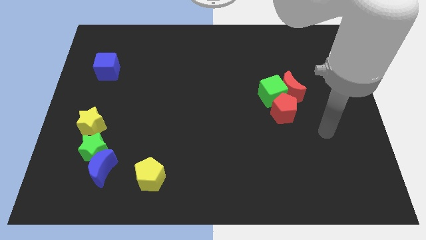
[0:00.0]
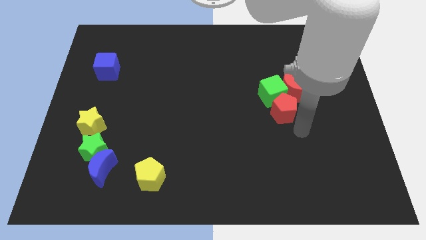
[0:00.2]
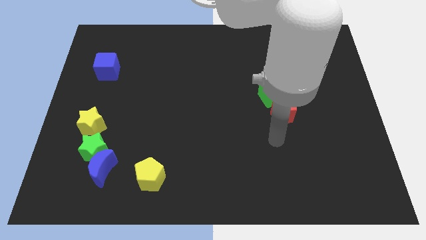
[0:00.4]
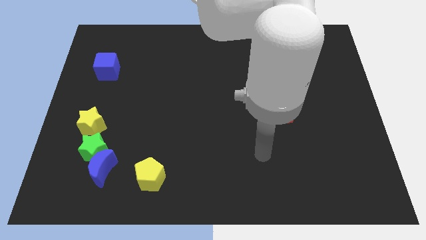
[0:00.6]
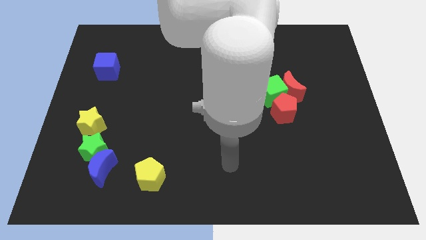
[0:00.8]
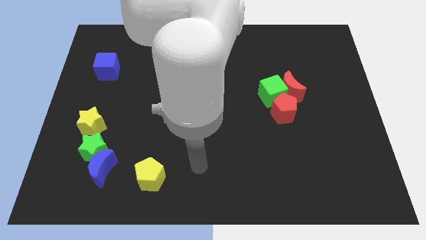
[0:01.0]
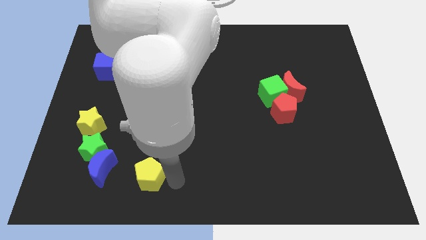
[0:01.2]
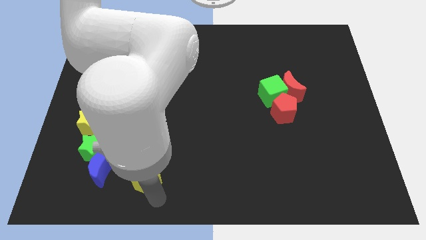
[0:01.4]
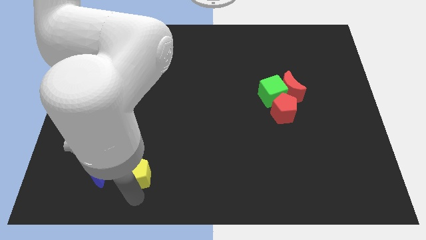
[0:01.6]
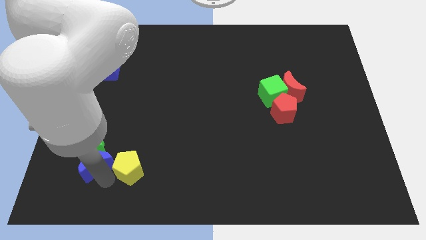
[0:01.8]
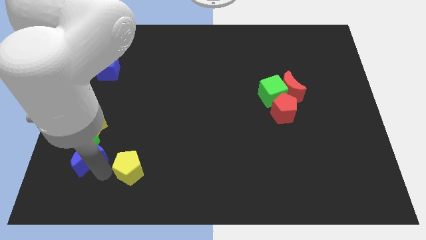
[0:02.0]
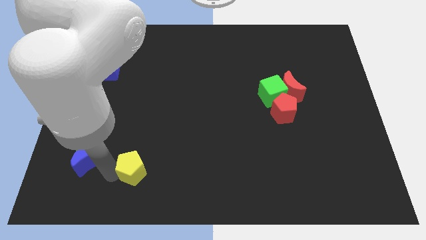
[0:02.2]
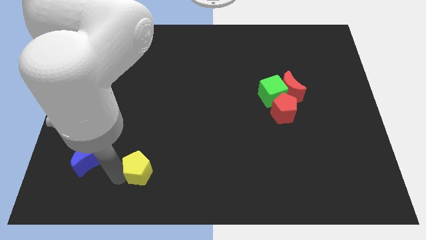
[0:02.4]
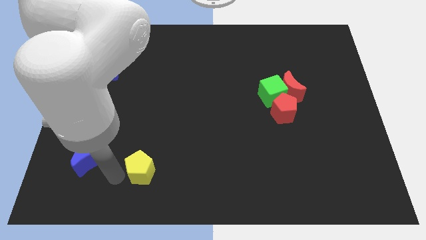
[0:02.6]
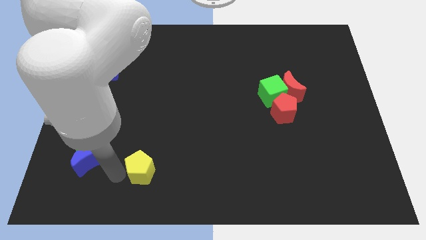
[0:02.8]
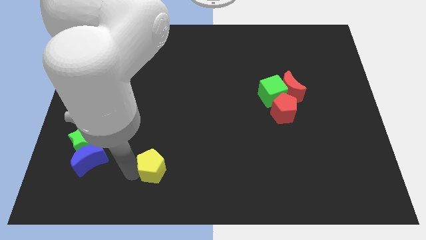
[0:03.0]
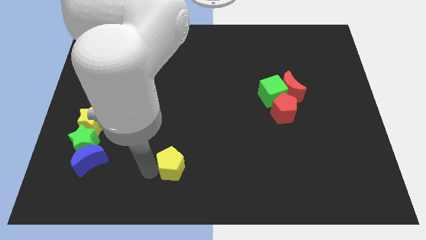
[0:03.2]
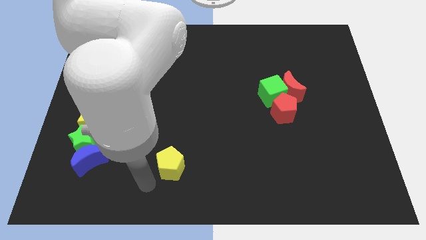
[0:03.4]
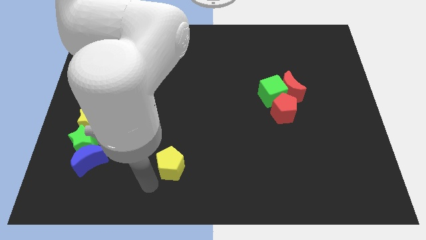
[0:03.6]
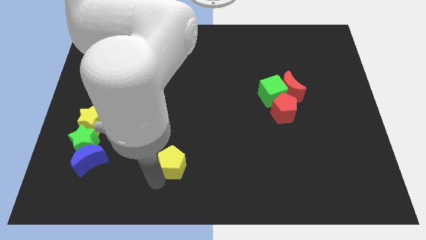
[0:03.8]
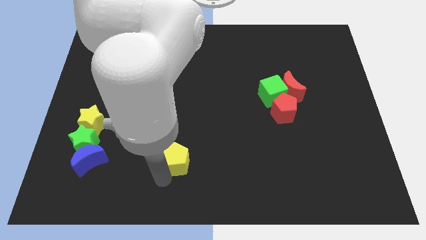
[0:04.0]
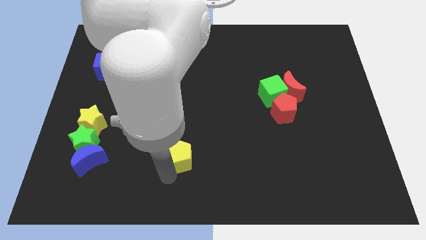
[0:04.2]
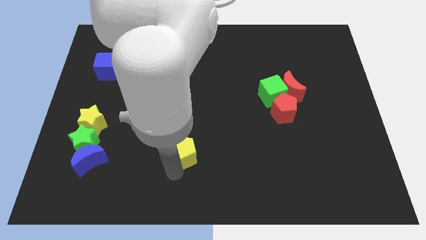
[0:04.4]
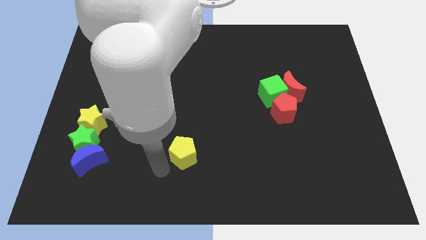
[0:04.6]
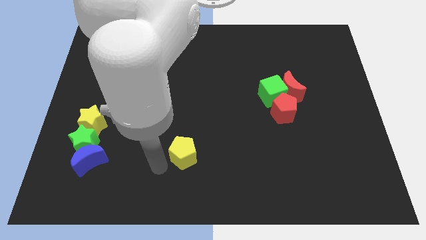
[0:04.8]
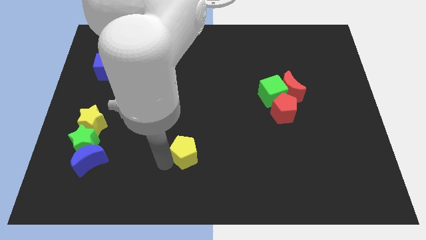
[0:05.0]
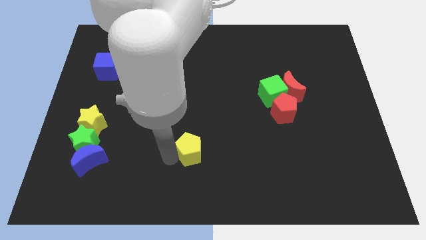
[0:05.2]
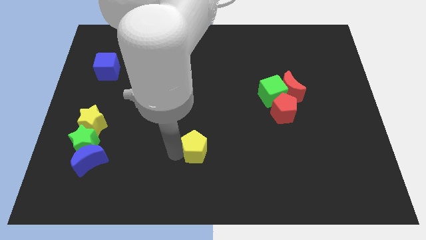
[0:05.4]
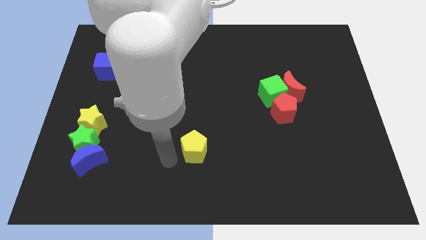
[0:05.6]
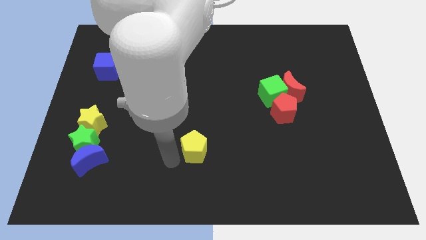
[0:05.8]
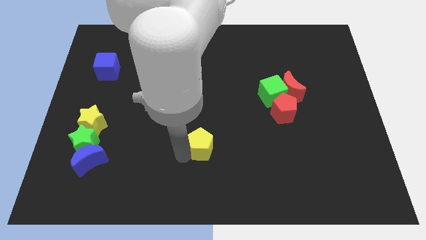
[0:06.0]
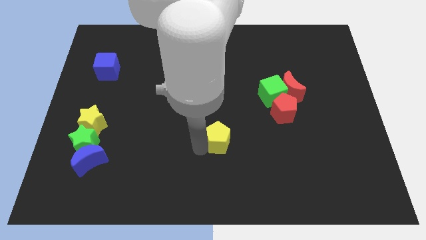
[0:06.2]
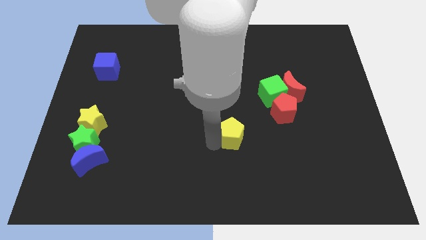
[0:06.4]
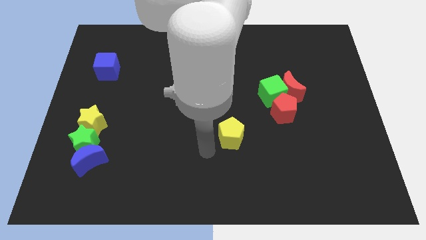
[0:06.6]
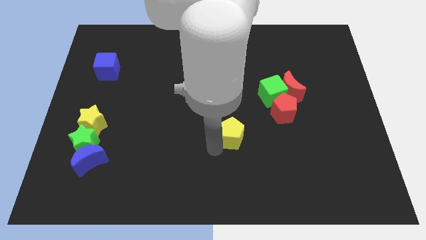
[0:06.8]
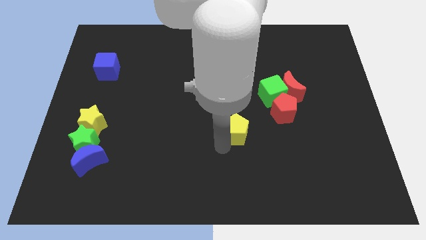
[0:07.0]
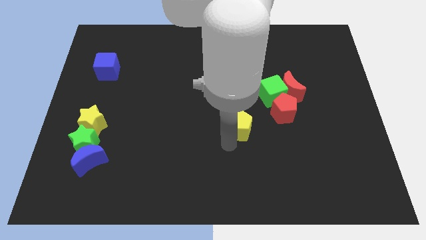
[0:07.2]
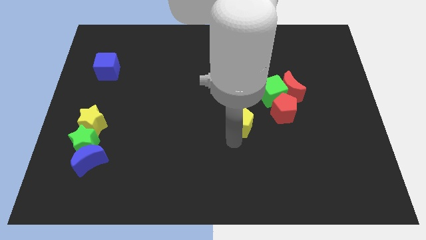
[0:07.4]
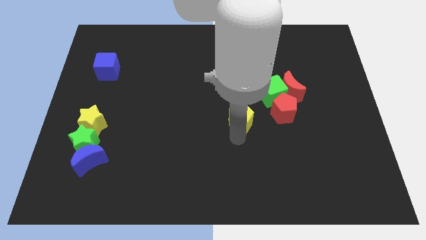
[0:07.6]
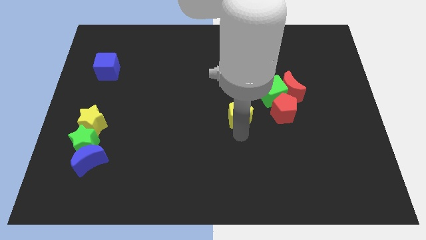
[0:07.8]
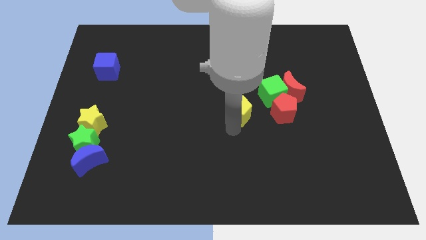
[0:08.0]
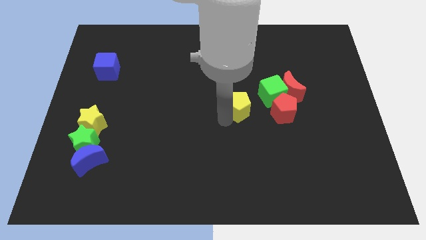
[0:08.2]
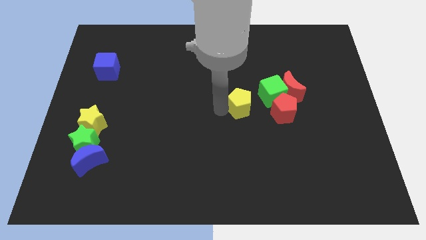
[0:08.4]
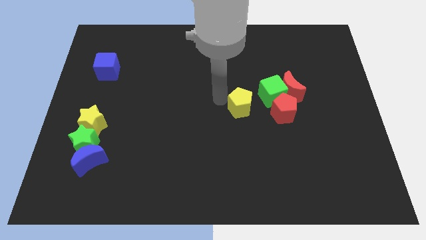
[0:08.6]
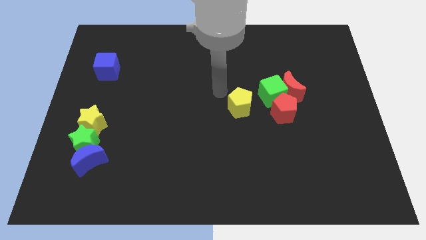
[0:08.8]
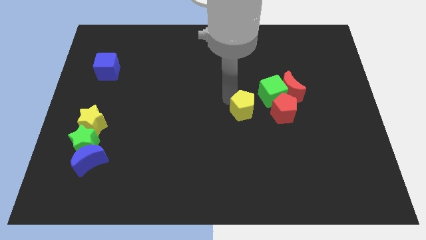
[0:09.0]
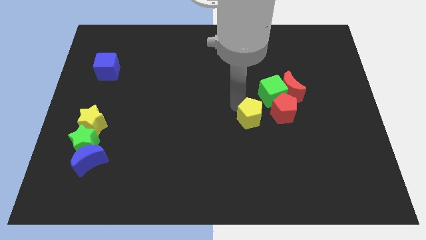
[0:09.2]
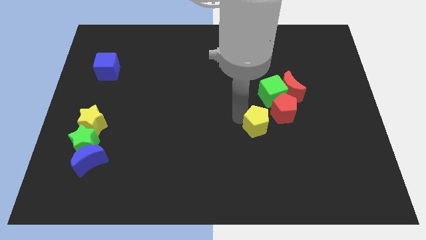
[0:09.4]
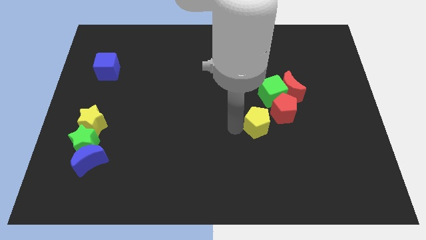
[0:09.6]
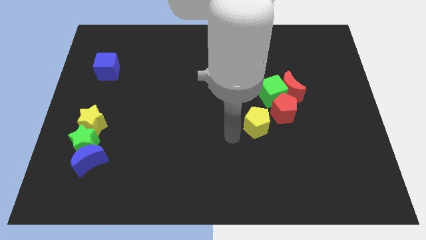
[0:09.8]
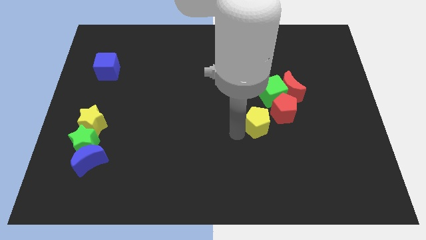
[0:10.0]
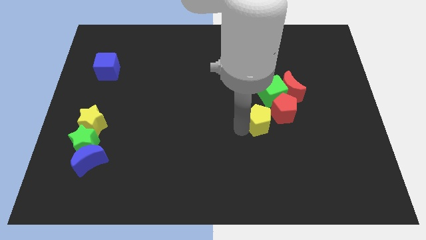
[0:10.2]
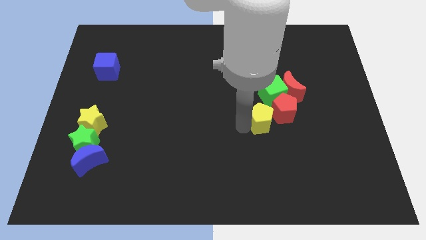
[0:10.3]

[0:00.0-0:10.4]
move the yellow pentagon close to the red pentagon

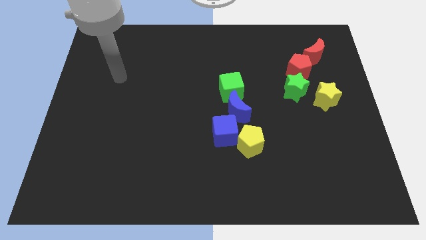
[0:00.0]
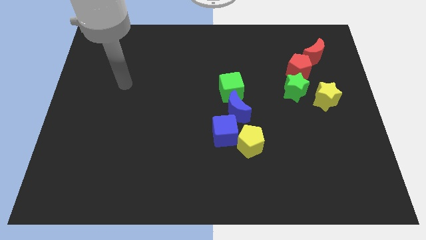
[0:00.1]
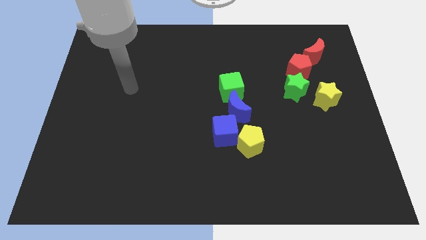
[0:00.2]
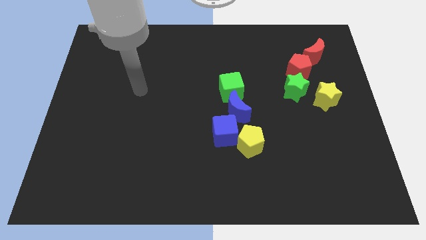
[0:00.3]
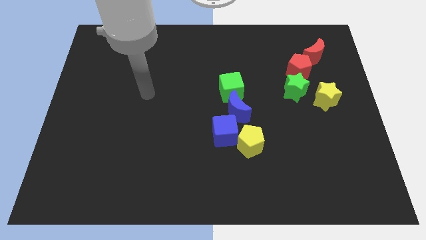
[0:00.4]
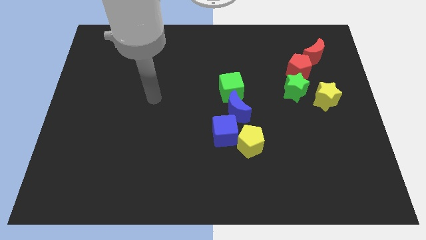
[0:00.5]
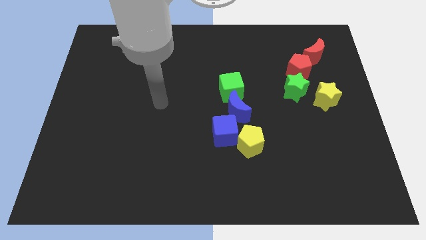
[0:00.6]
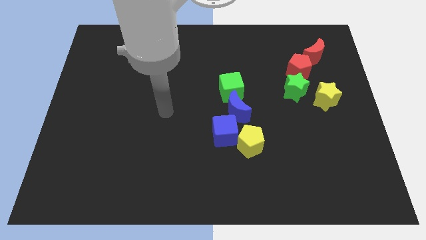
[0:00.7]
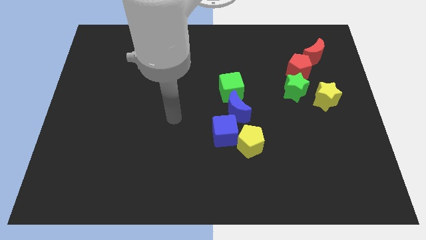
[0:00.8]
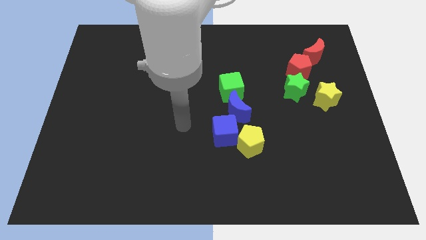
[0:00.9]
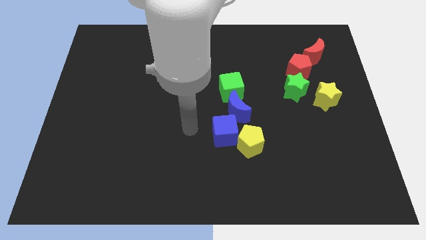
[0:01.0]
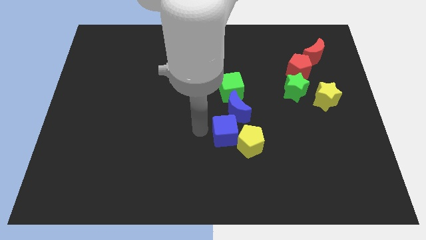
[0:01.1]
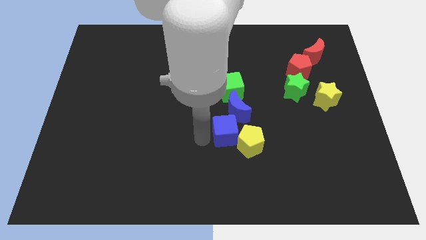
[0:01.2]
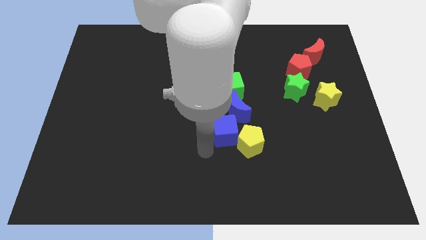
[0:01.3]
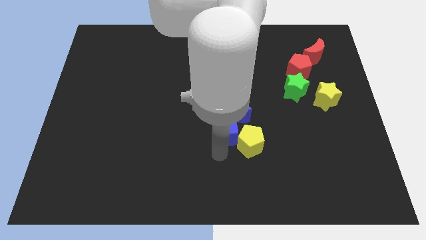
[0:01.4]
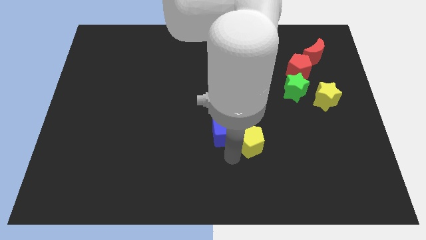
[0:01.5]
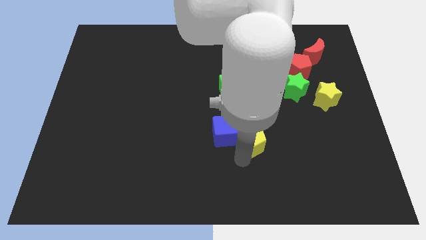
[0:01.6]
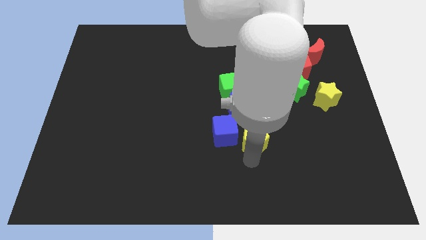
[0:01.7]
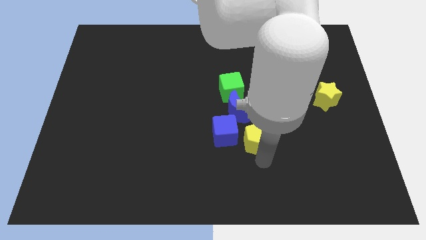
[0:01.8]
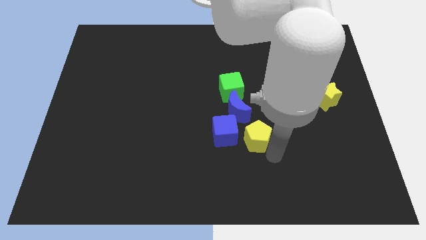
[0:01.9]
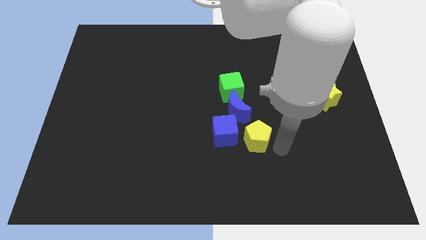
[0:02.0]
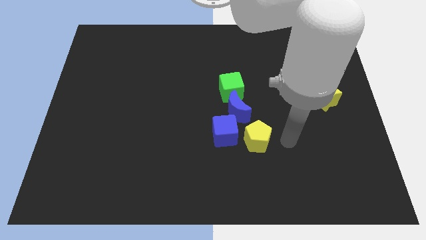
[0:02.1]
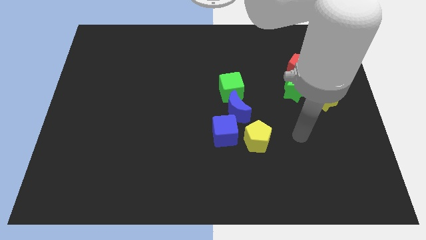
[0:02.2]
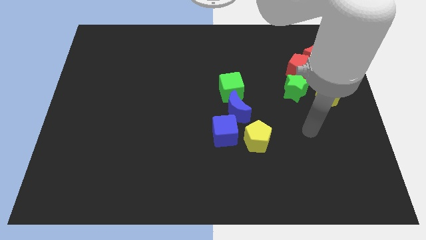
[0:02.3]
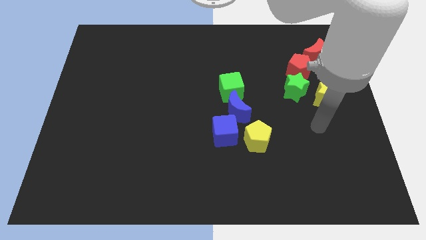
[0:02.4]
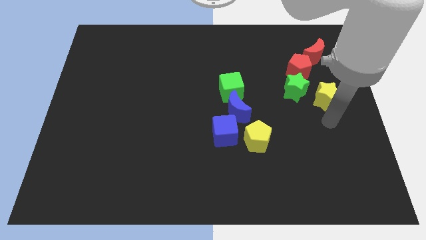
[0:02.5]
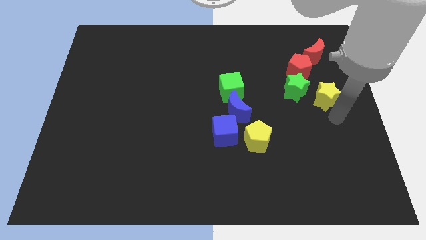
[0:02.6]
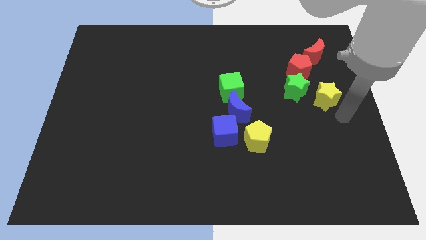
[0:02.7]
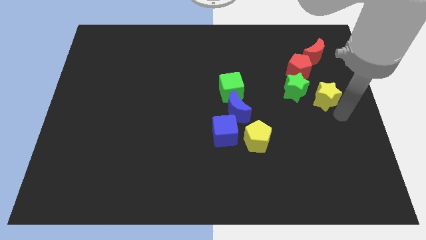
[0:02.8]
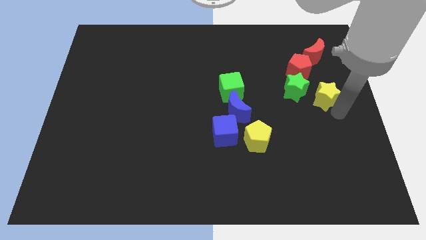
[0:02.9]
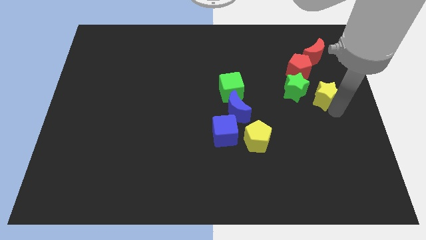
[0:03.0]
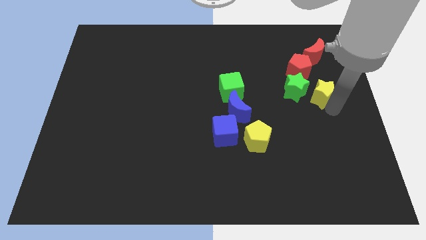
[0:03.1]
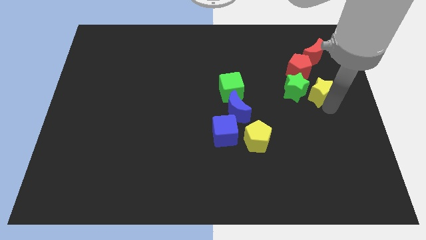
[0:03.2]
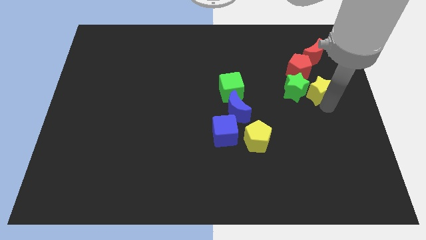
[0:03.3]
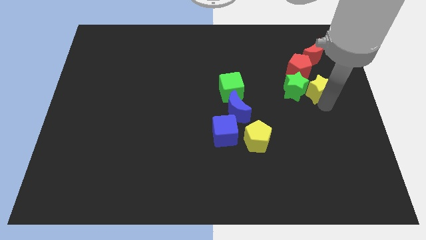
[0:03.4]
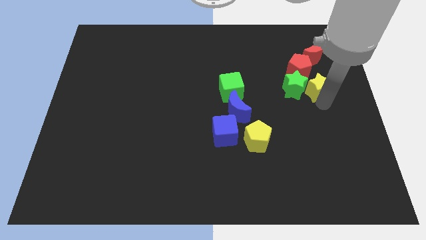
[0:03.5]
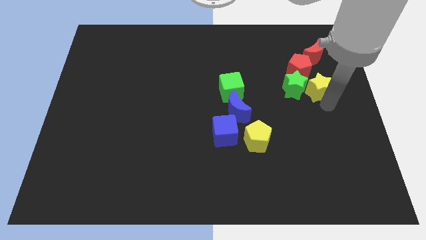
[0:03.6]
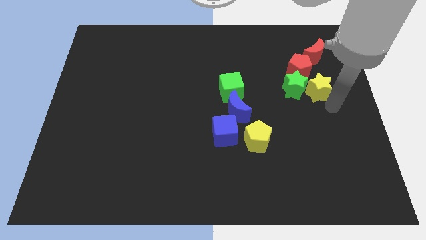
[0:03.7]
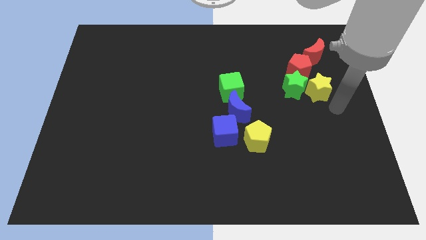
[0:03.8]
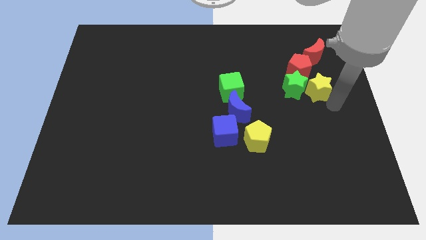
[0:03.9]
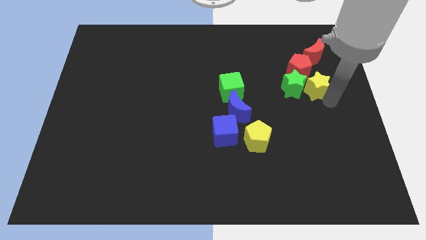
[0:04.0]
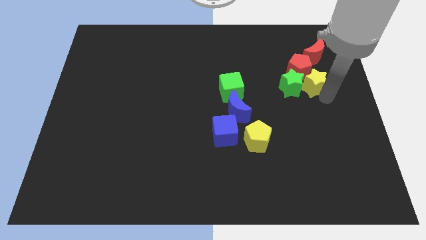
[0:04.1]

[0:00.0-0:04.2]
slide the yellow star next to the red pentagon
